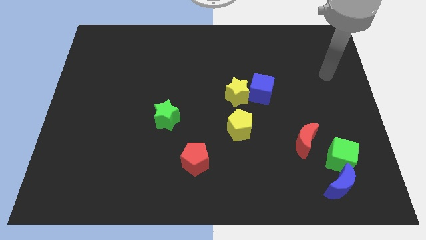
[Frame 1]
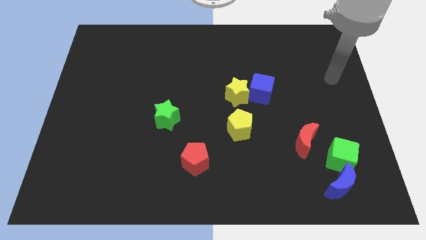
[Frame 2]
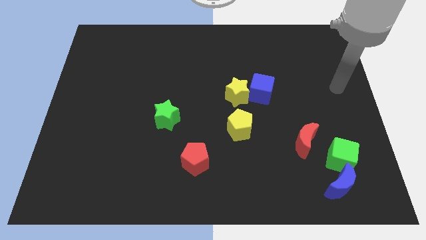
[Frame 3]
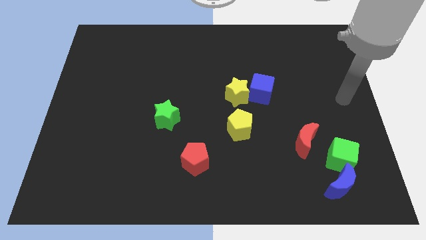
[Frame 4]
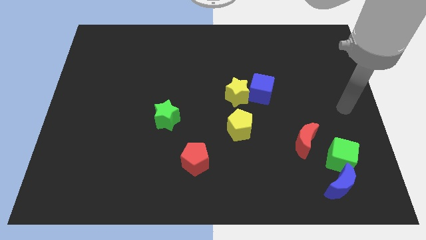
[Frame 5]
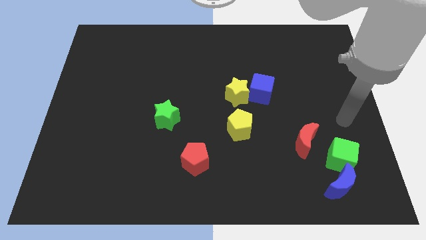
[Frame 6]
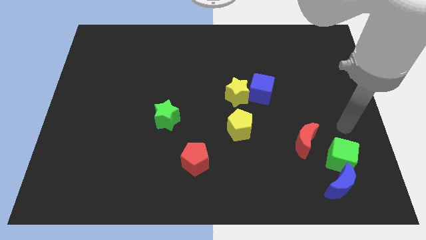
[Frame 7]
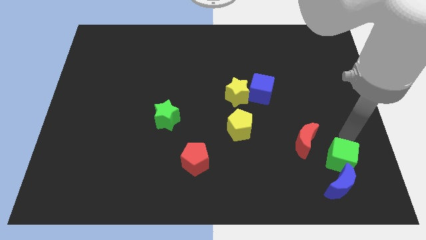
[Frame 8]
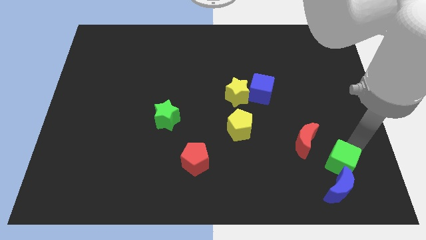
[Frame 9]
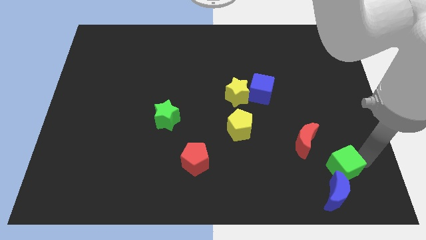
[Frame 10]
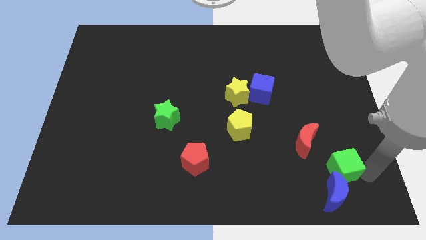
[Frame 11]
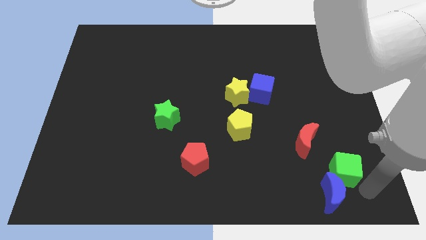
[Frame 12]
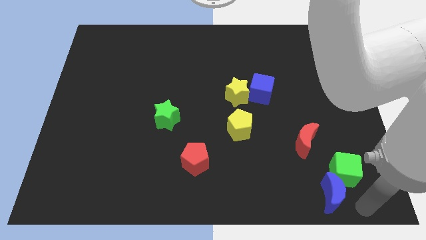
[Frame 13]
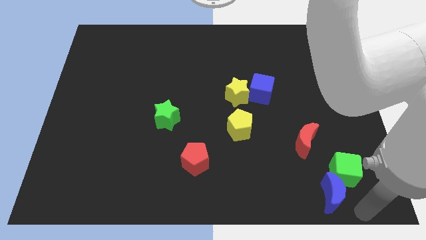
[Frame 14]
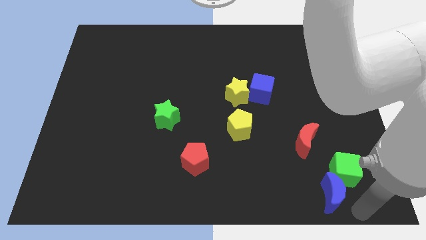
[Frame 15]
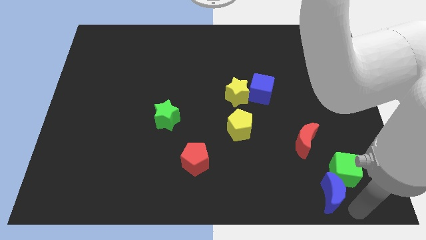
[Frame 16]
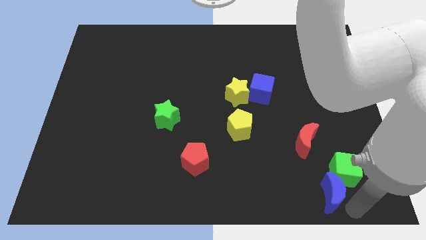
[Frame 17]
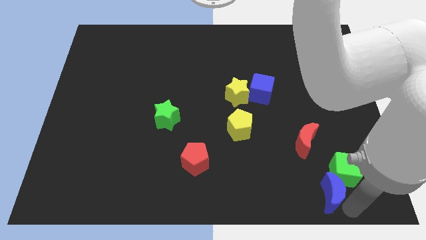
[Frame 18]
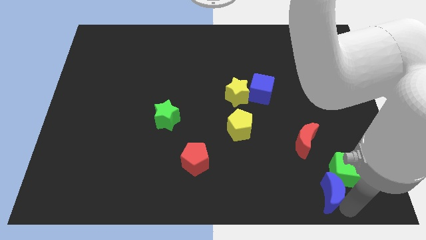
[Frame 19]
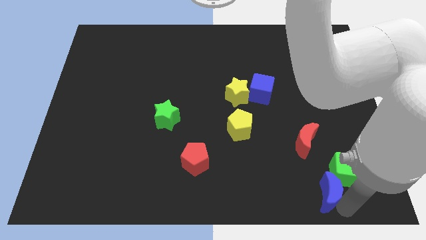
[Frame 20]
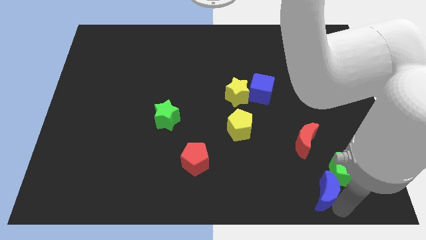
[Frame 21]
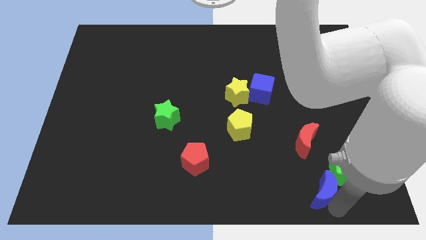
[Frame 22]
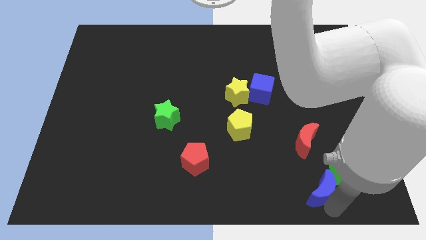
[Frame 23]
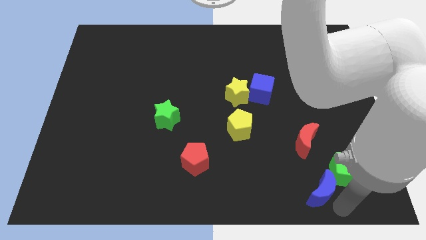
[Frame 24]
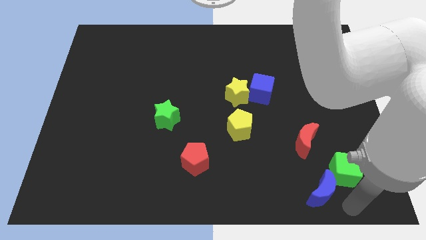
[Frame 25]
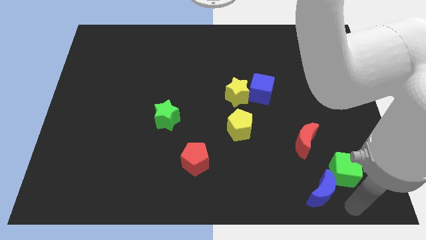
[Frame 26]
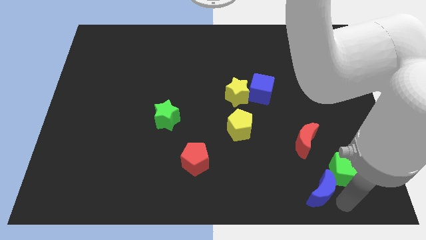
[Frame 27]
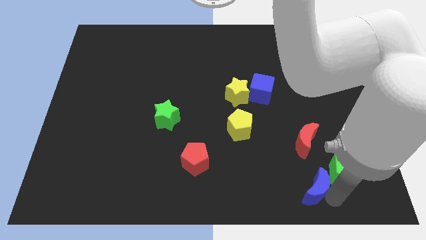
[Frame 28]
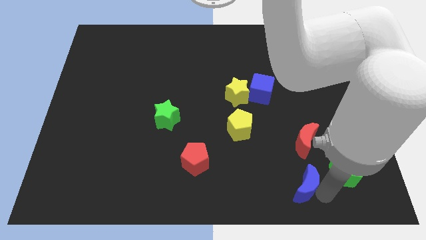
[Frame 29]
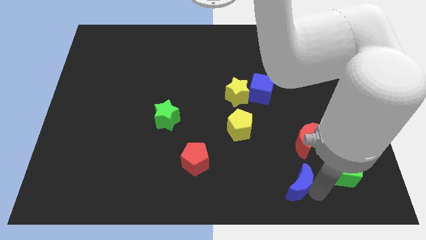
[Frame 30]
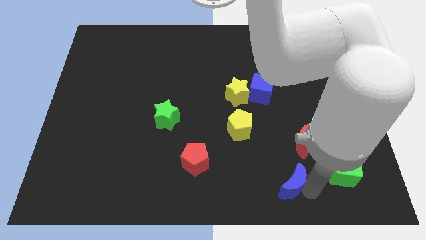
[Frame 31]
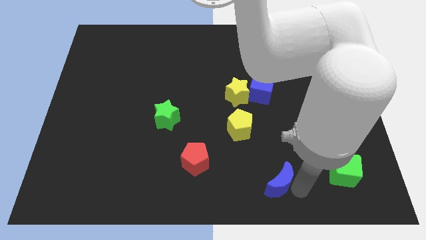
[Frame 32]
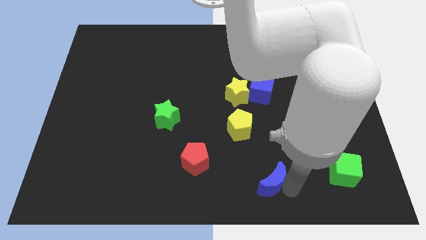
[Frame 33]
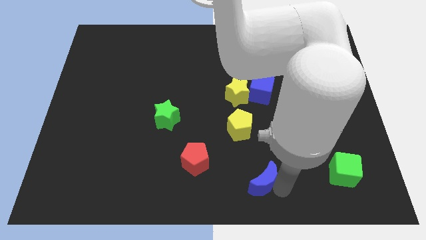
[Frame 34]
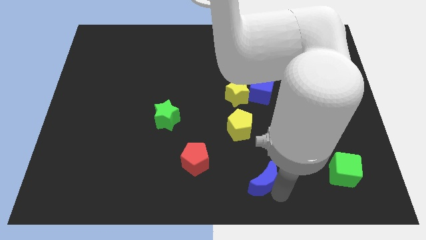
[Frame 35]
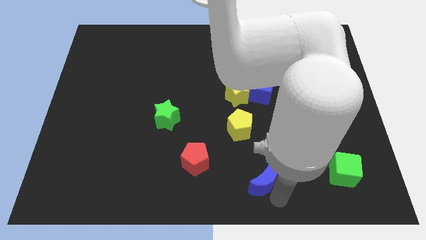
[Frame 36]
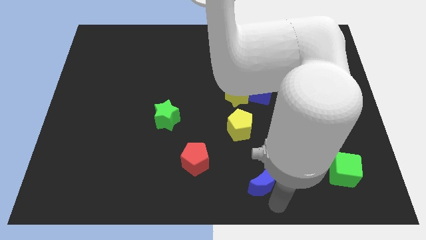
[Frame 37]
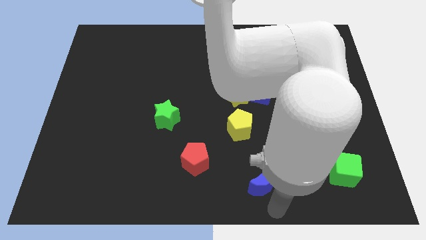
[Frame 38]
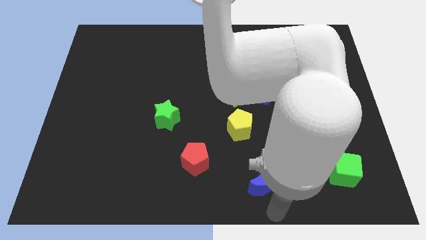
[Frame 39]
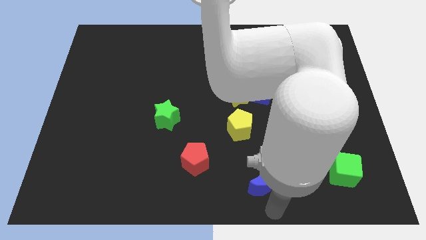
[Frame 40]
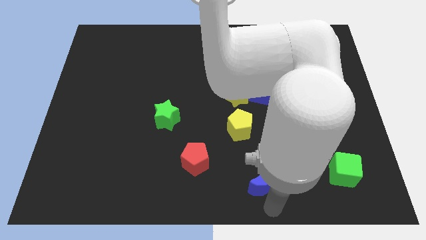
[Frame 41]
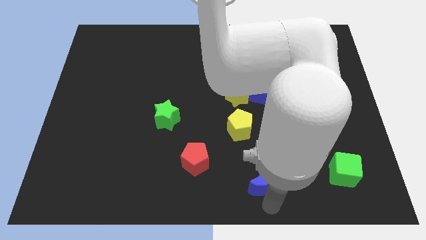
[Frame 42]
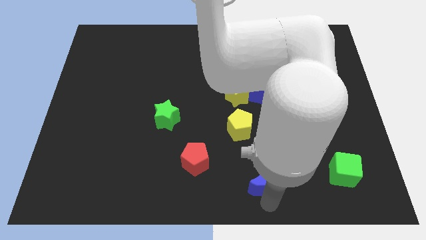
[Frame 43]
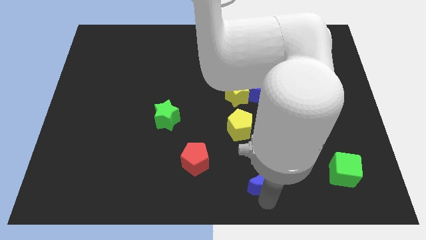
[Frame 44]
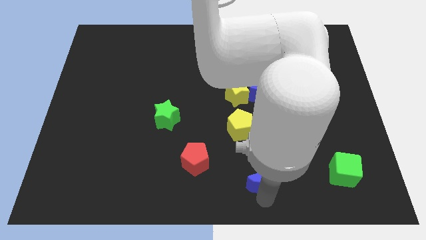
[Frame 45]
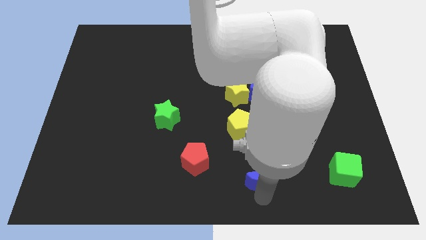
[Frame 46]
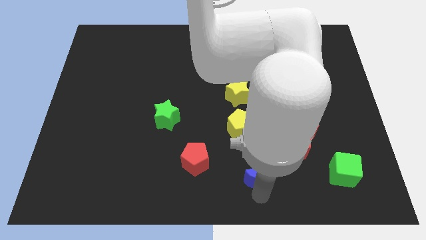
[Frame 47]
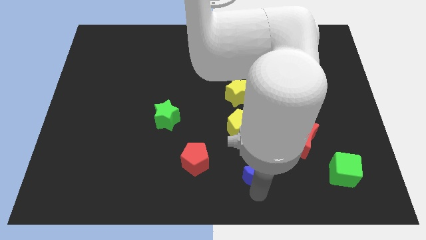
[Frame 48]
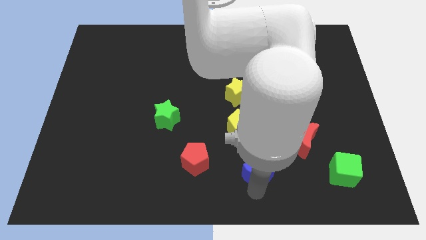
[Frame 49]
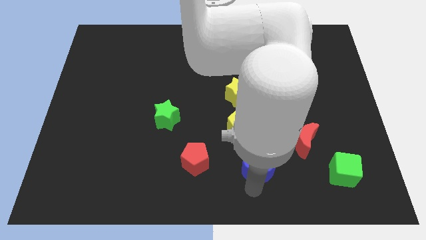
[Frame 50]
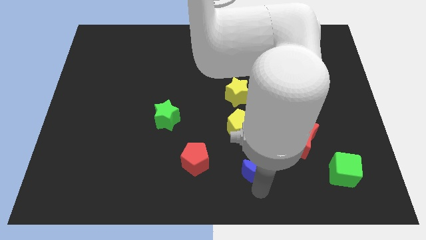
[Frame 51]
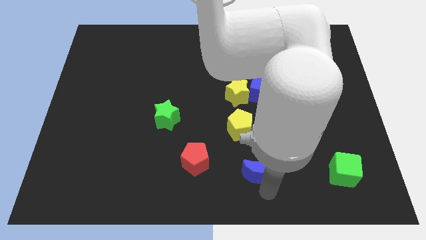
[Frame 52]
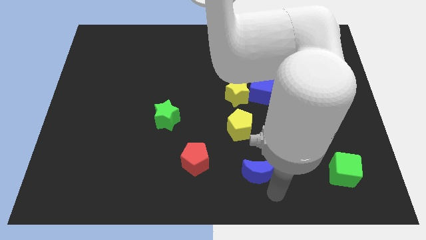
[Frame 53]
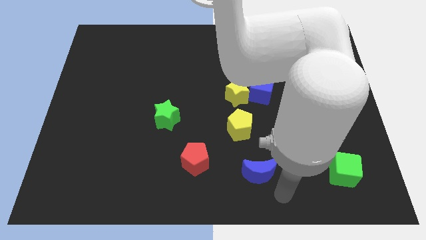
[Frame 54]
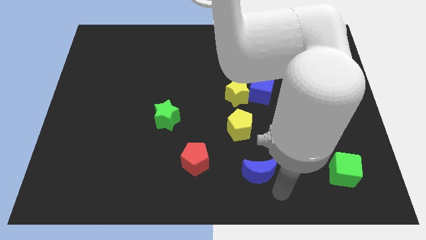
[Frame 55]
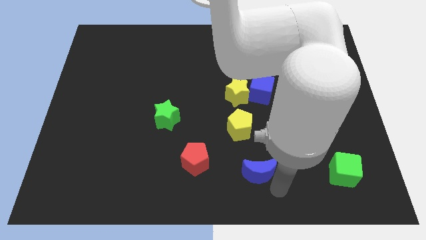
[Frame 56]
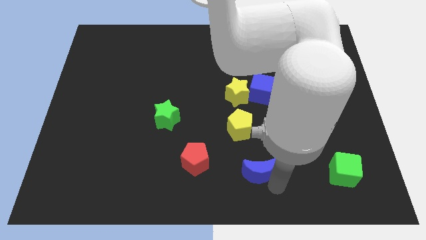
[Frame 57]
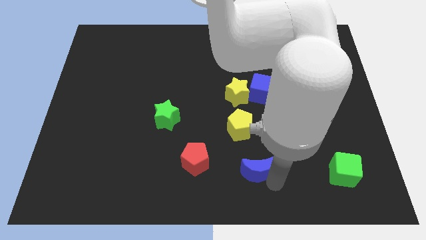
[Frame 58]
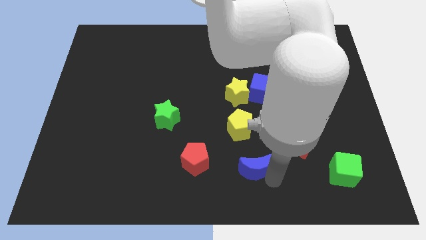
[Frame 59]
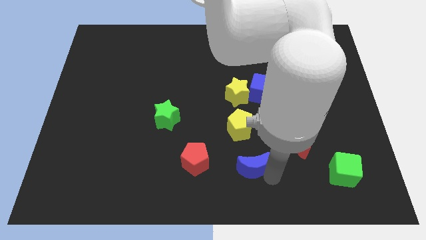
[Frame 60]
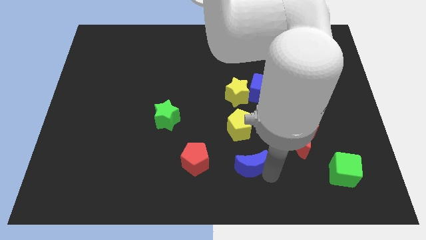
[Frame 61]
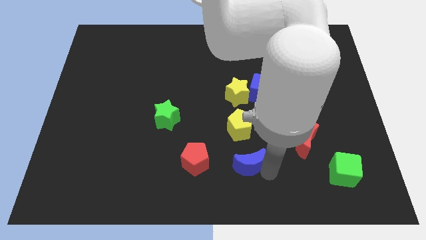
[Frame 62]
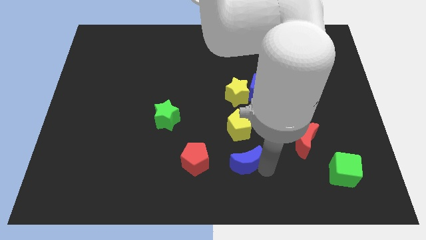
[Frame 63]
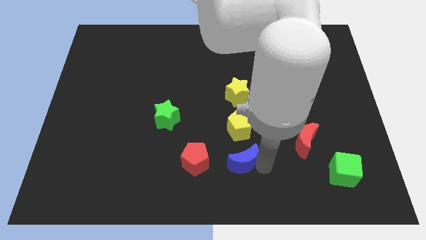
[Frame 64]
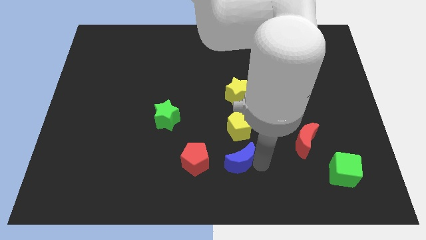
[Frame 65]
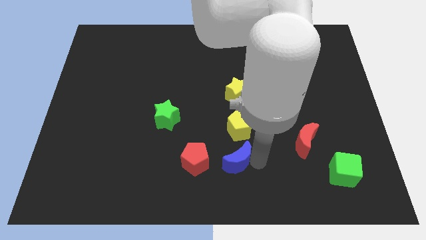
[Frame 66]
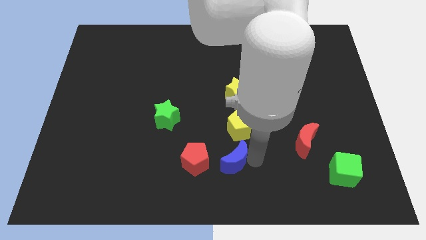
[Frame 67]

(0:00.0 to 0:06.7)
put the blue moon to the bottom left of the yellow pentagon

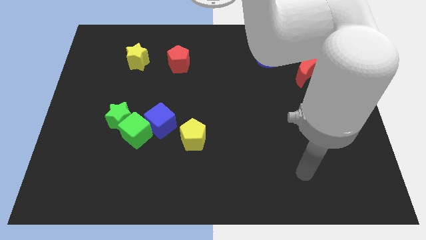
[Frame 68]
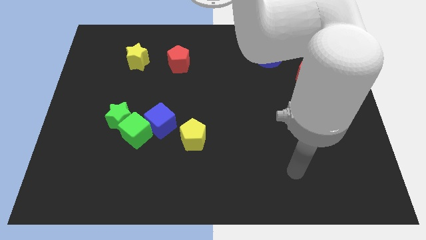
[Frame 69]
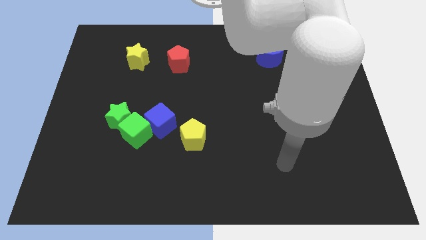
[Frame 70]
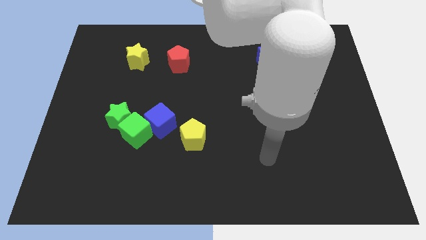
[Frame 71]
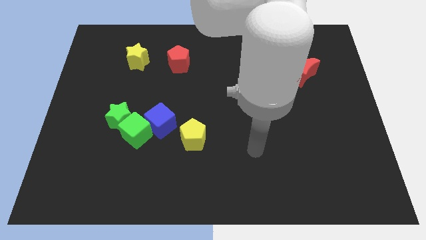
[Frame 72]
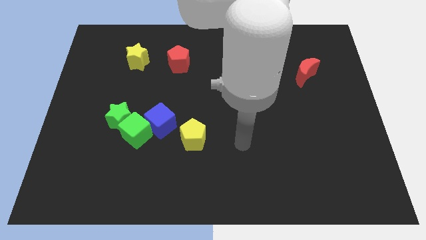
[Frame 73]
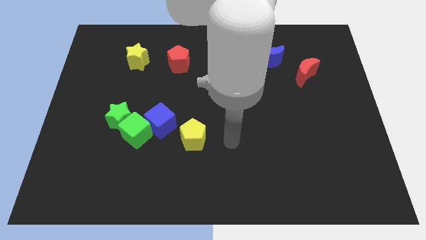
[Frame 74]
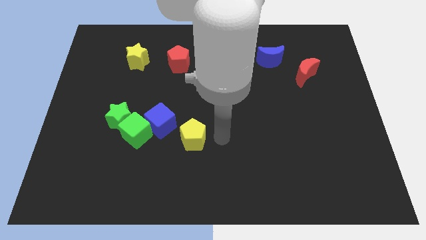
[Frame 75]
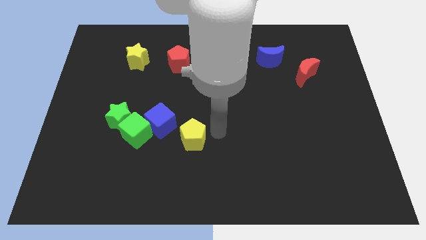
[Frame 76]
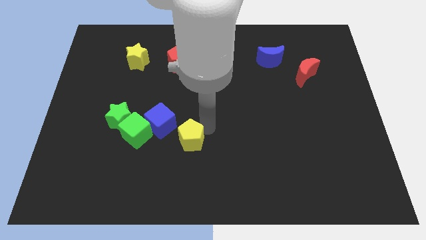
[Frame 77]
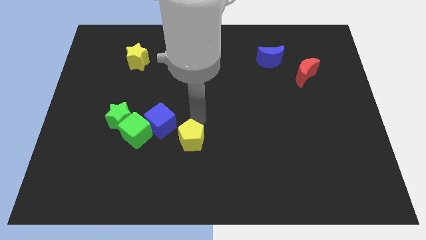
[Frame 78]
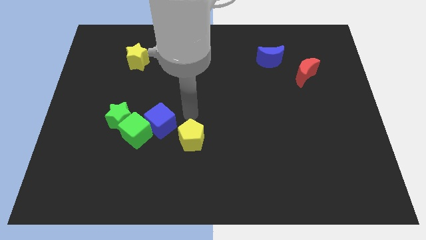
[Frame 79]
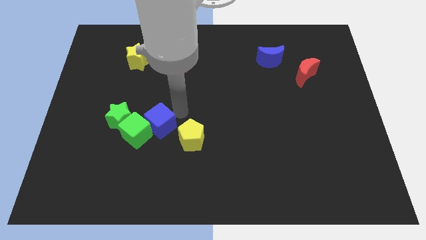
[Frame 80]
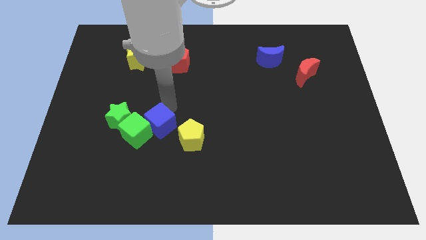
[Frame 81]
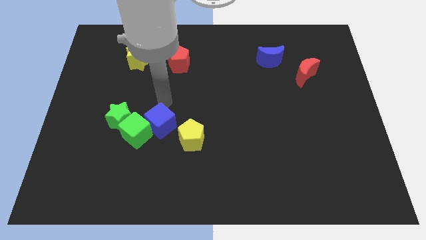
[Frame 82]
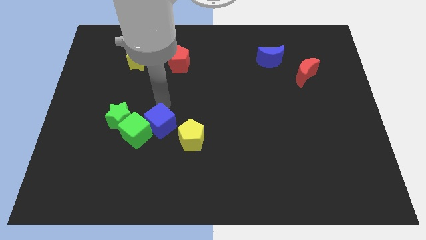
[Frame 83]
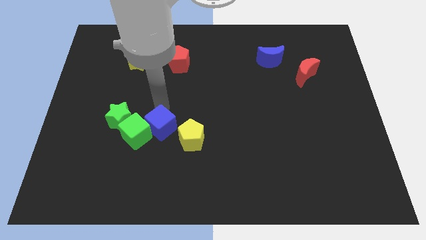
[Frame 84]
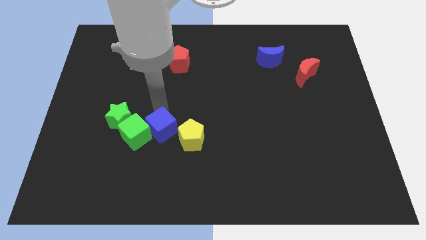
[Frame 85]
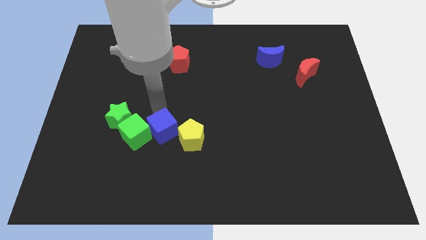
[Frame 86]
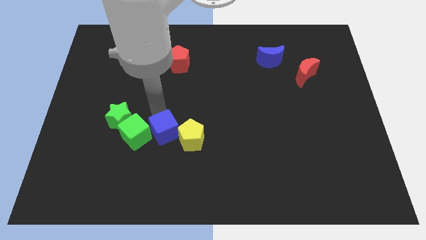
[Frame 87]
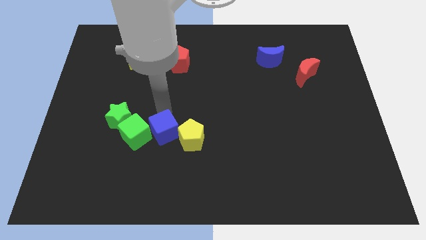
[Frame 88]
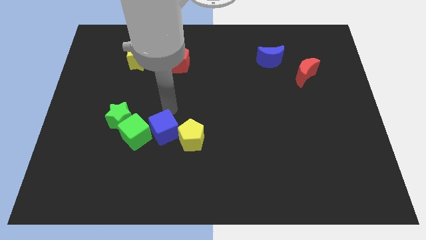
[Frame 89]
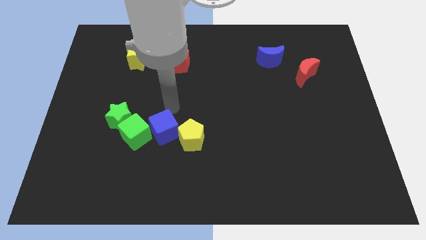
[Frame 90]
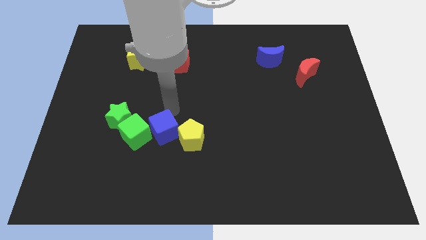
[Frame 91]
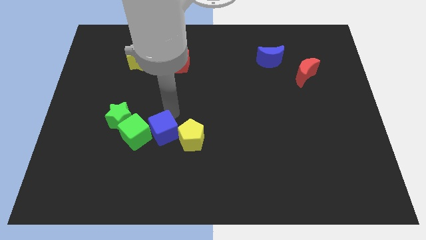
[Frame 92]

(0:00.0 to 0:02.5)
put the blue cube to the bottom right of the green cube
